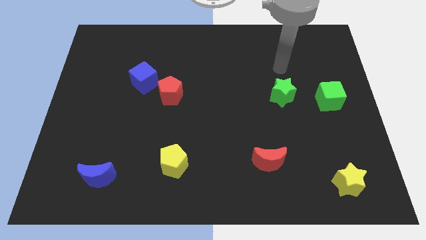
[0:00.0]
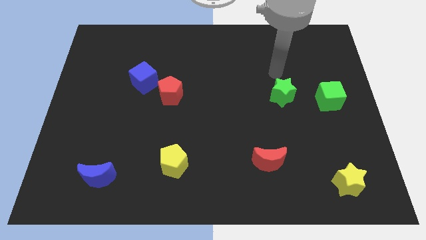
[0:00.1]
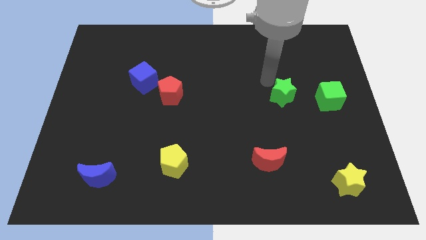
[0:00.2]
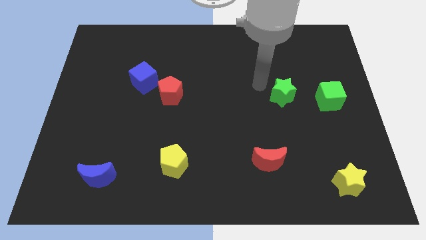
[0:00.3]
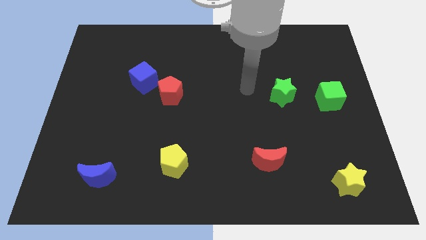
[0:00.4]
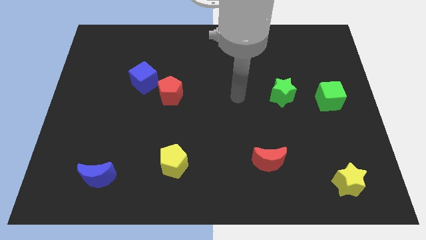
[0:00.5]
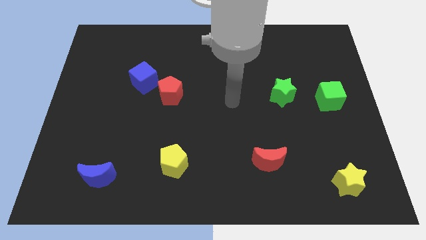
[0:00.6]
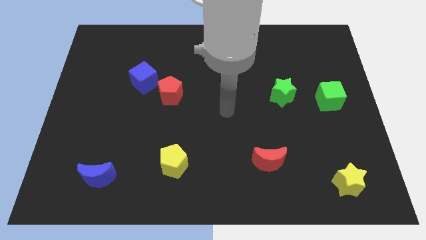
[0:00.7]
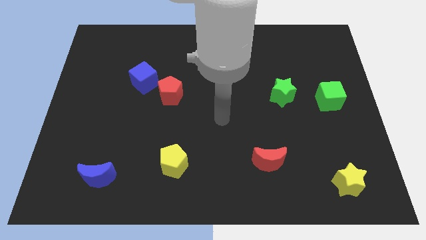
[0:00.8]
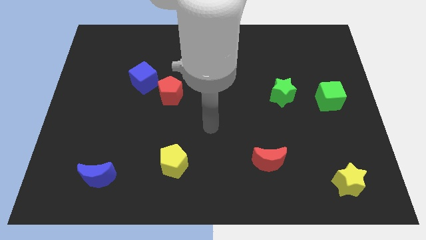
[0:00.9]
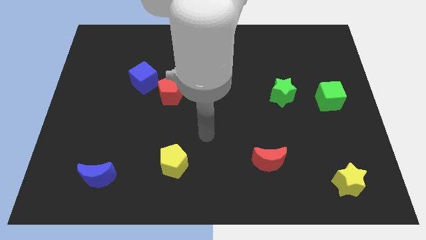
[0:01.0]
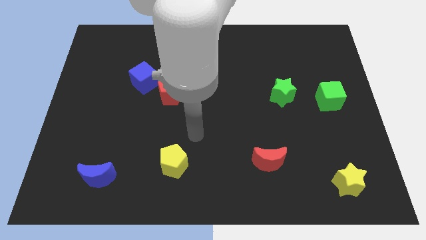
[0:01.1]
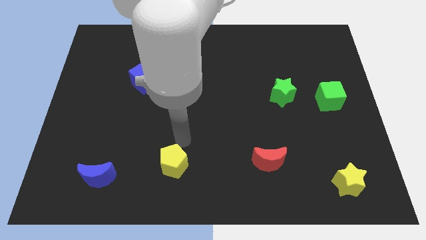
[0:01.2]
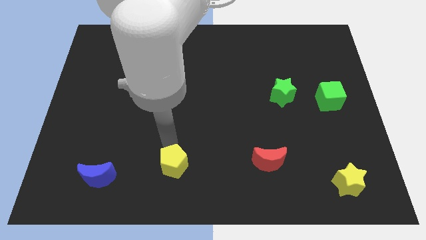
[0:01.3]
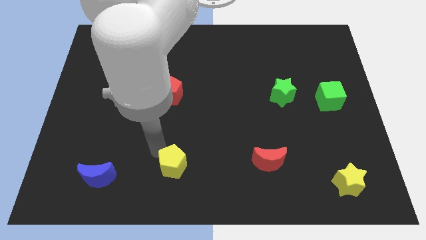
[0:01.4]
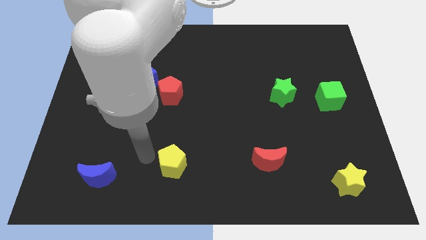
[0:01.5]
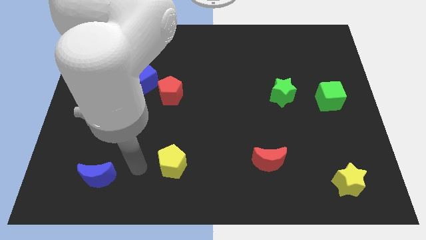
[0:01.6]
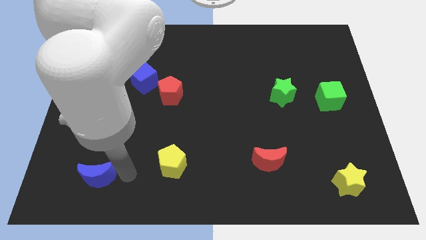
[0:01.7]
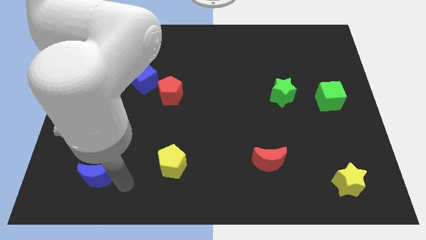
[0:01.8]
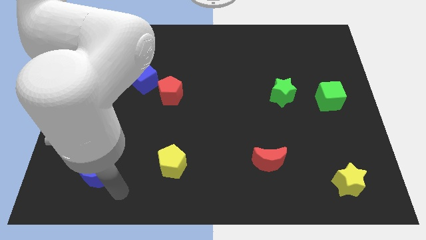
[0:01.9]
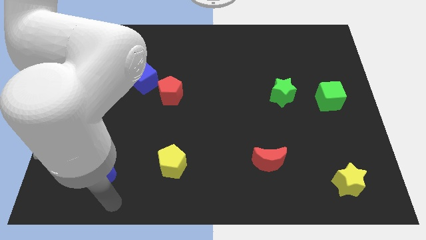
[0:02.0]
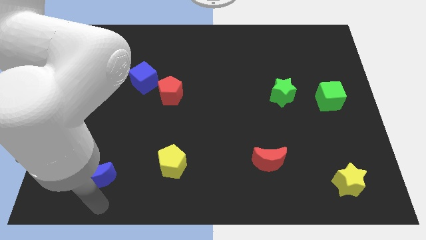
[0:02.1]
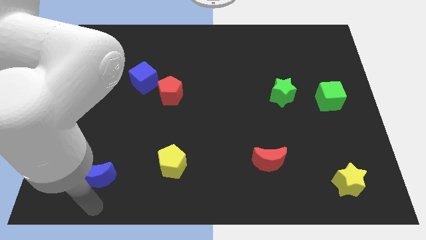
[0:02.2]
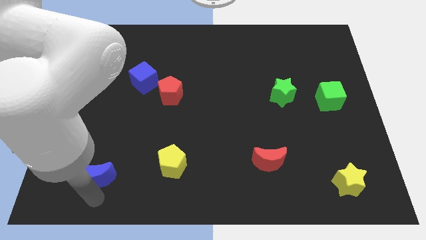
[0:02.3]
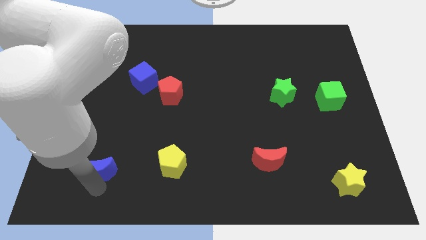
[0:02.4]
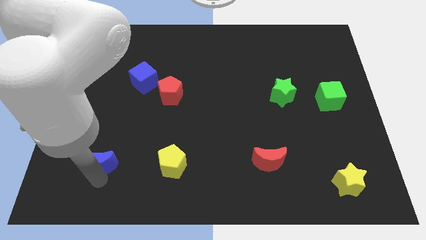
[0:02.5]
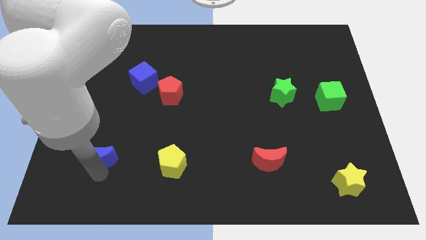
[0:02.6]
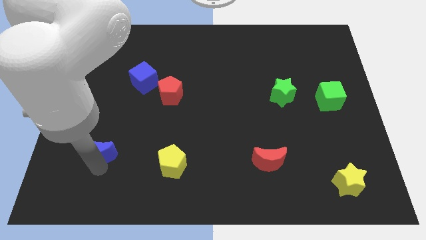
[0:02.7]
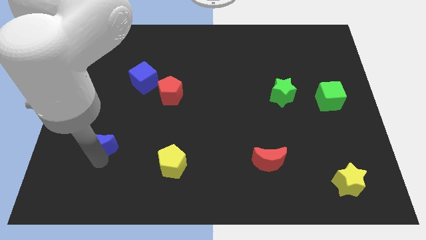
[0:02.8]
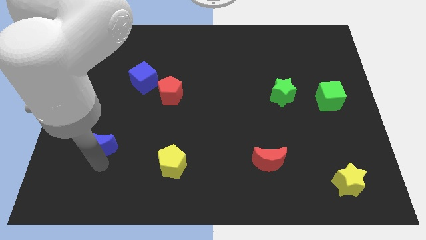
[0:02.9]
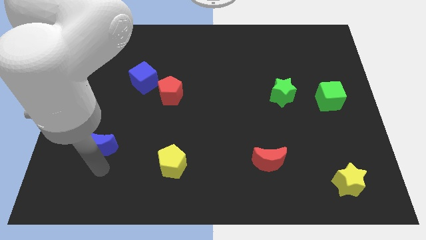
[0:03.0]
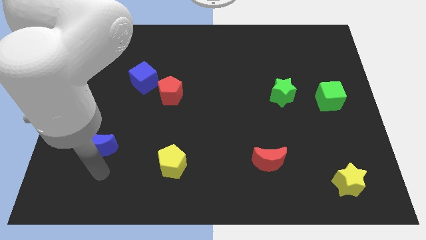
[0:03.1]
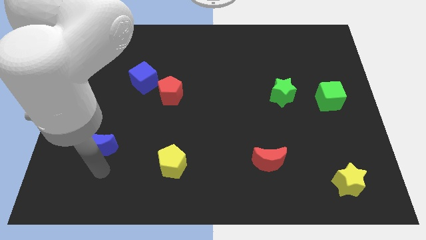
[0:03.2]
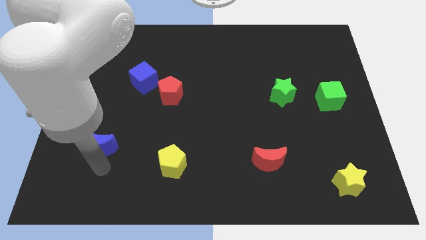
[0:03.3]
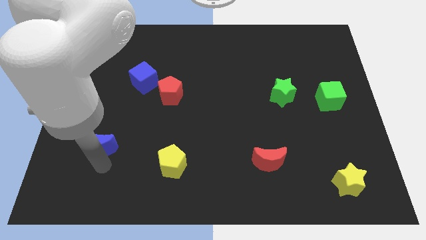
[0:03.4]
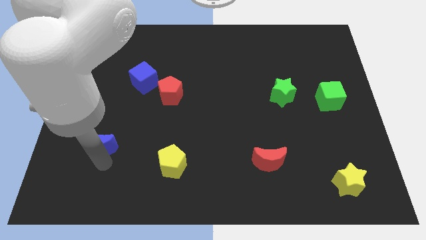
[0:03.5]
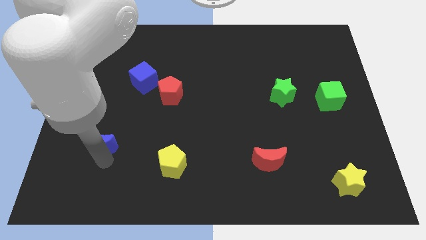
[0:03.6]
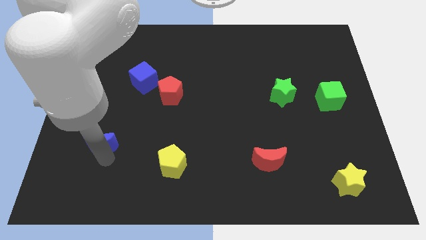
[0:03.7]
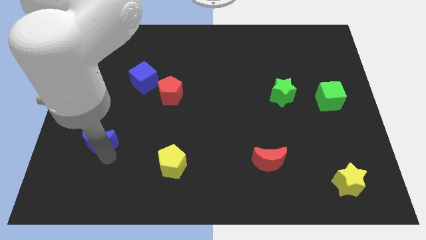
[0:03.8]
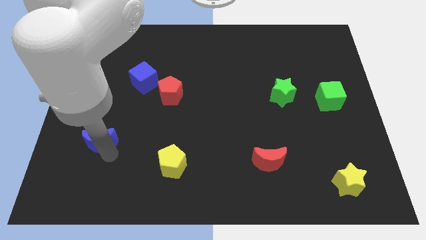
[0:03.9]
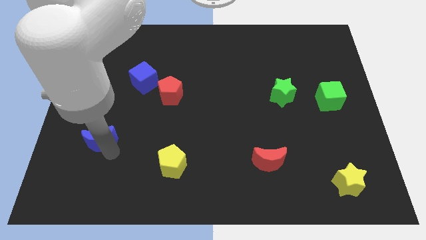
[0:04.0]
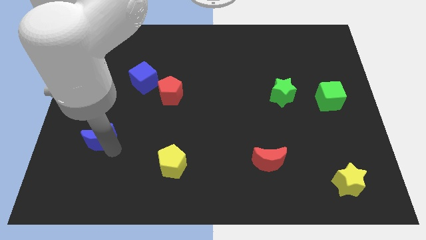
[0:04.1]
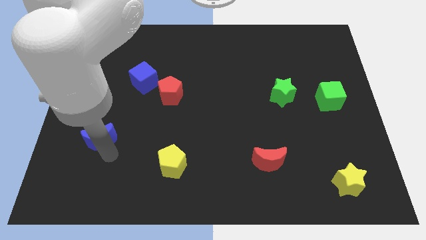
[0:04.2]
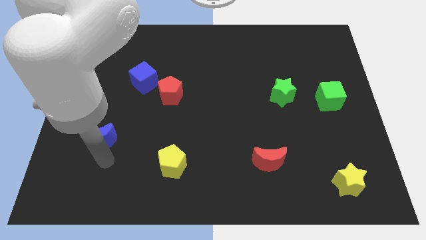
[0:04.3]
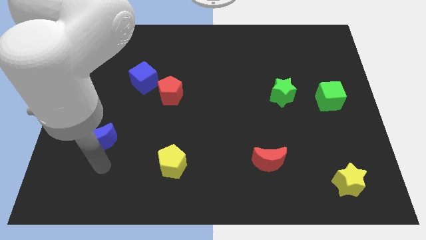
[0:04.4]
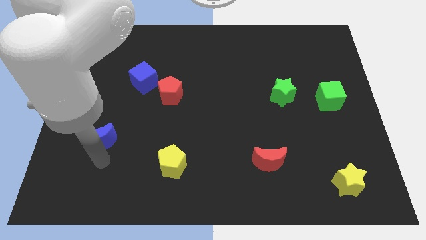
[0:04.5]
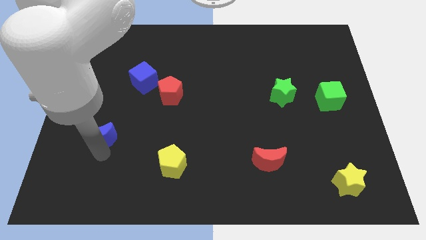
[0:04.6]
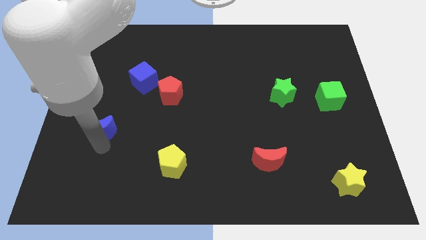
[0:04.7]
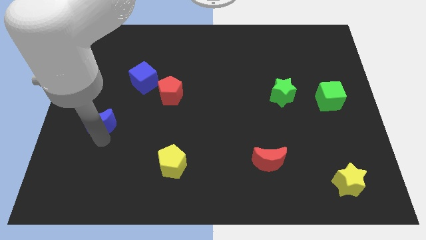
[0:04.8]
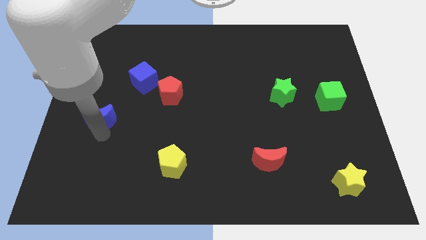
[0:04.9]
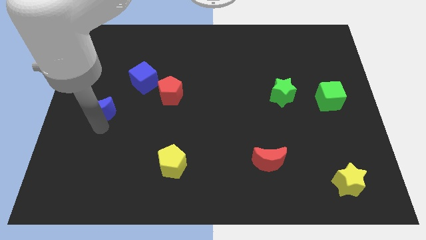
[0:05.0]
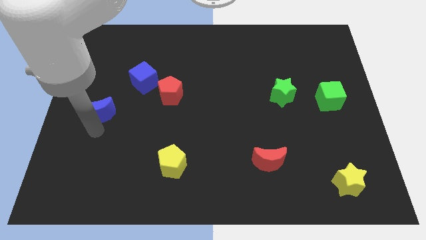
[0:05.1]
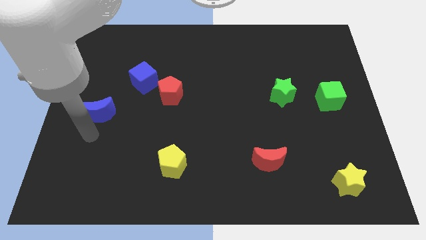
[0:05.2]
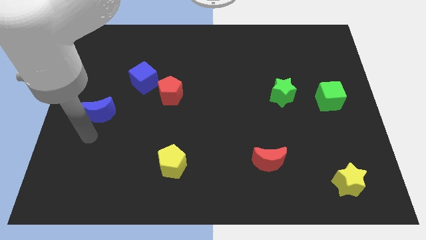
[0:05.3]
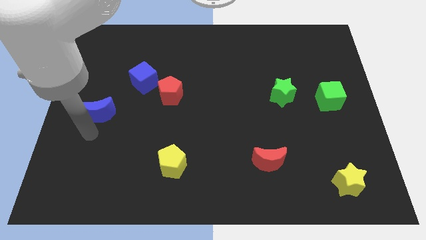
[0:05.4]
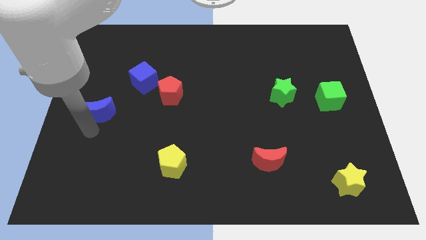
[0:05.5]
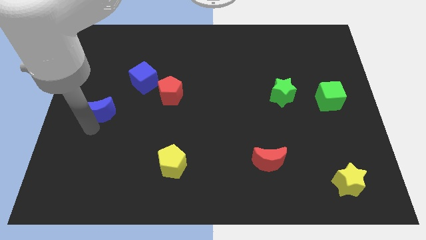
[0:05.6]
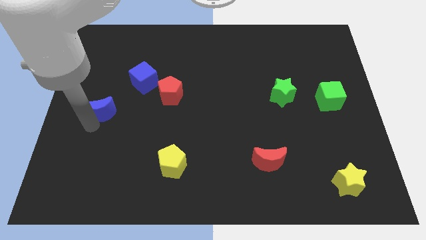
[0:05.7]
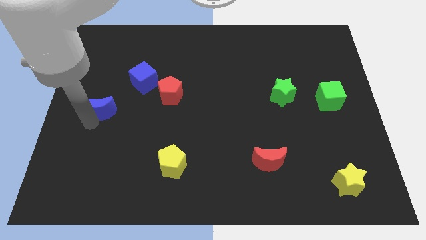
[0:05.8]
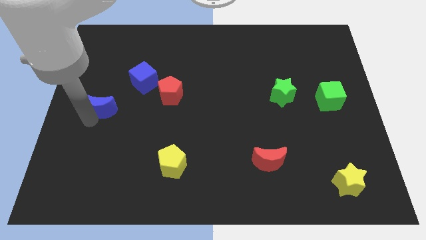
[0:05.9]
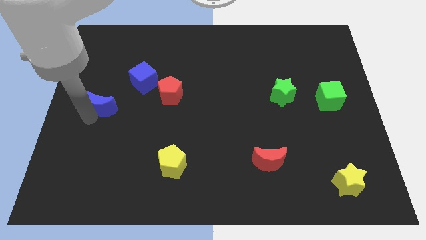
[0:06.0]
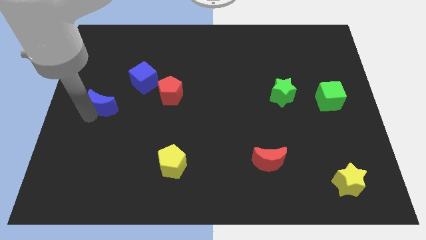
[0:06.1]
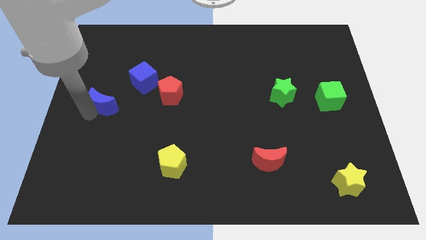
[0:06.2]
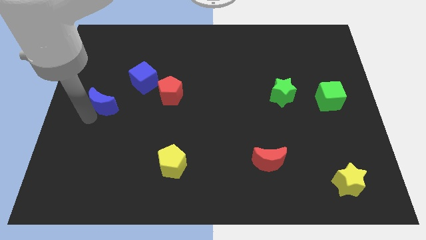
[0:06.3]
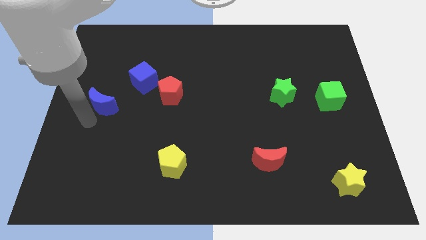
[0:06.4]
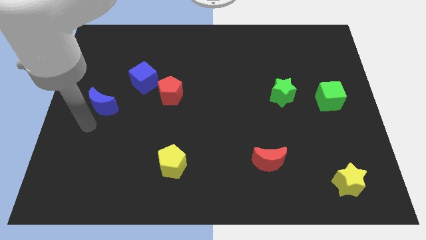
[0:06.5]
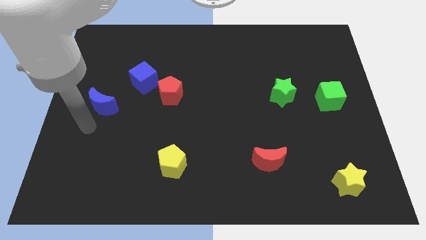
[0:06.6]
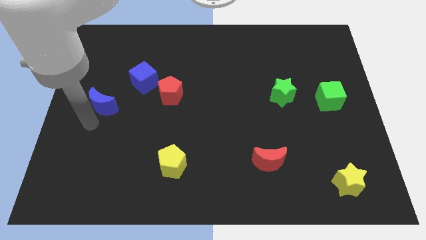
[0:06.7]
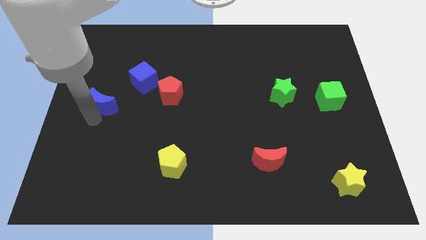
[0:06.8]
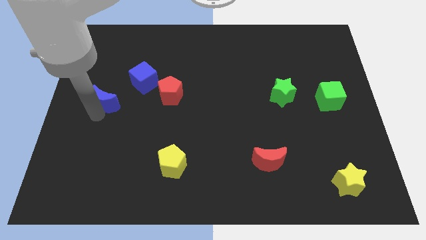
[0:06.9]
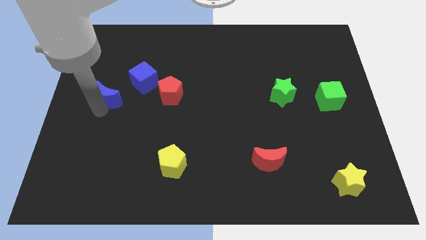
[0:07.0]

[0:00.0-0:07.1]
slide the blue moon upwards

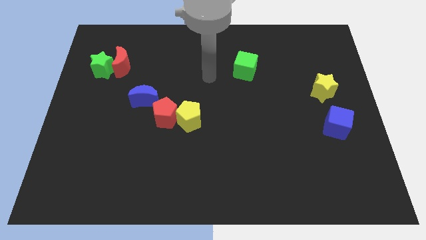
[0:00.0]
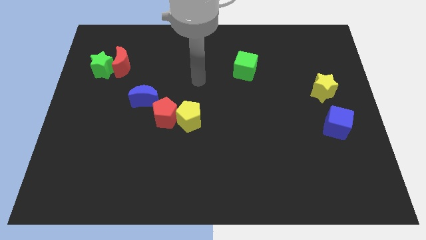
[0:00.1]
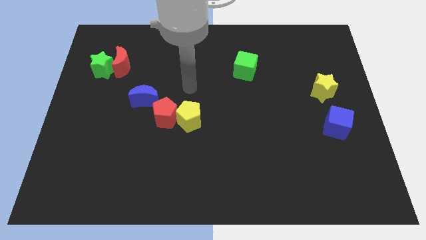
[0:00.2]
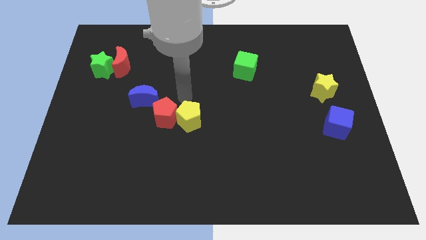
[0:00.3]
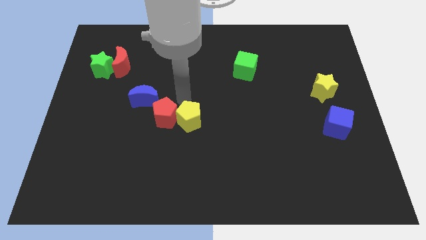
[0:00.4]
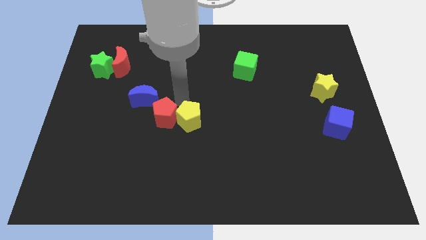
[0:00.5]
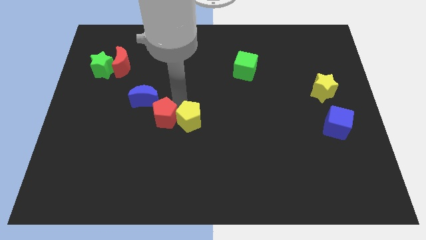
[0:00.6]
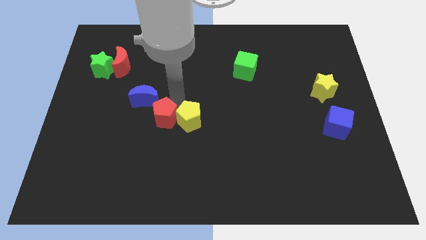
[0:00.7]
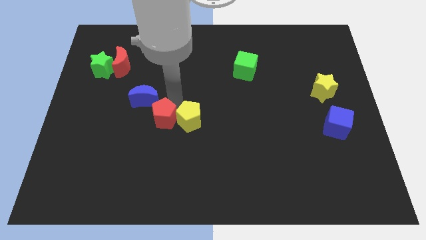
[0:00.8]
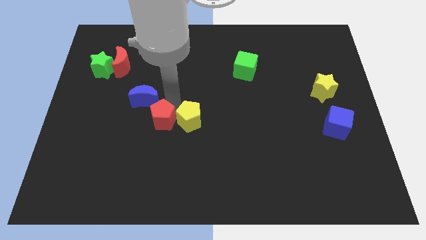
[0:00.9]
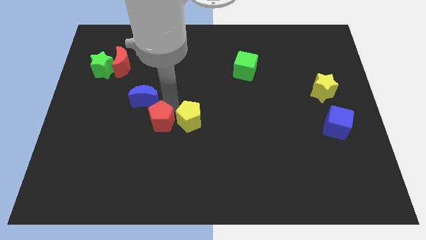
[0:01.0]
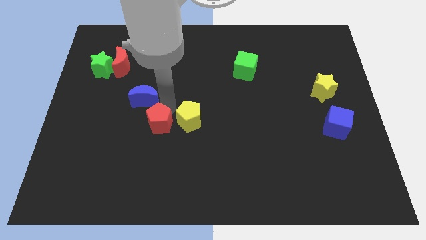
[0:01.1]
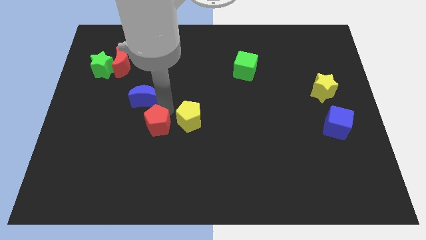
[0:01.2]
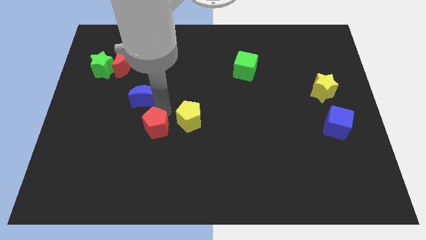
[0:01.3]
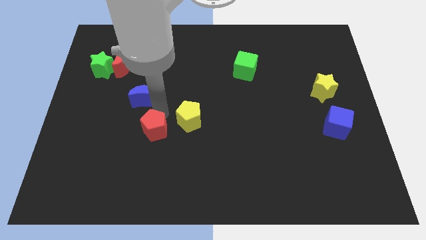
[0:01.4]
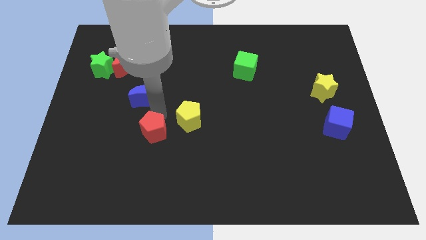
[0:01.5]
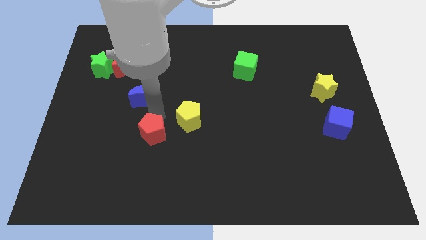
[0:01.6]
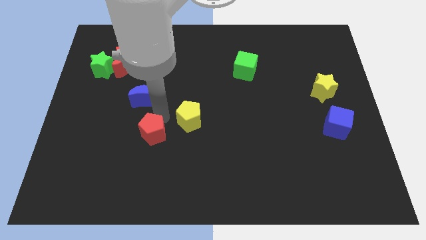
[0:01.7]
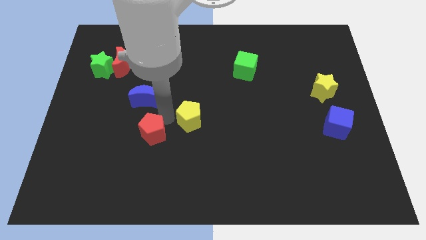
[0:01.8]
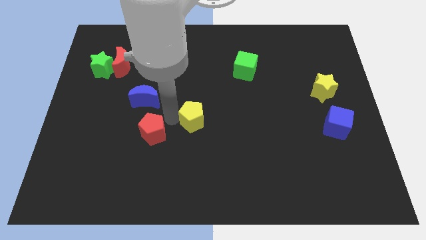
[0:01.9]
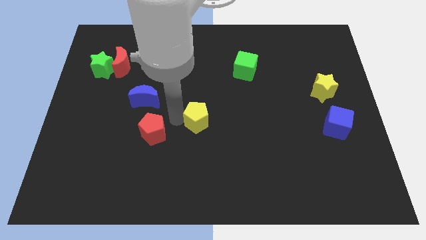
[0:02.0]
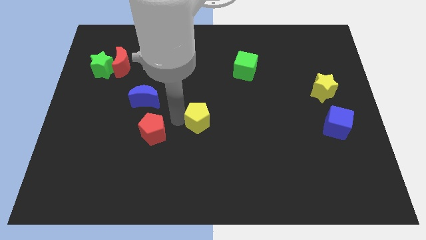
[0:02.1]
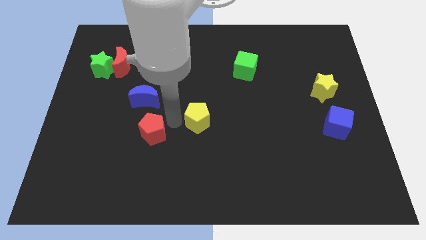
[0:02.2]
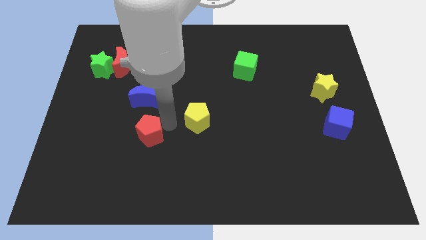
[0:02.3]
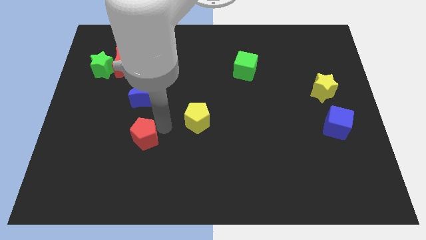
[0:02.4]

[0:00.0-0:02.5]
slide the red pentagon a bit diagonally downwards and to the left
